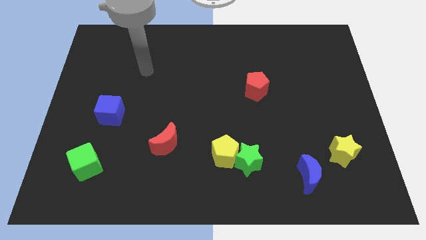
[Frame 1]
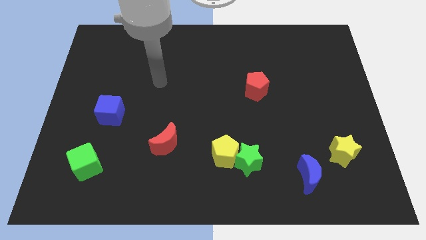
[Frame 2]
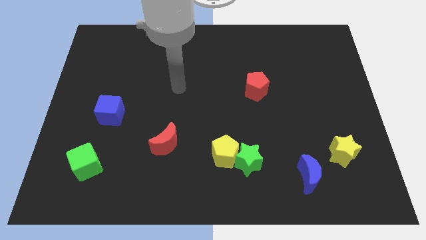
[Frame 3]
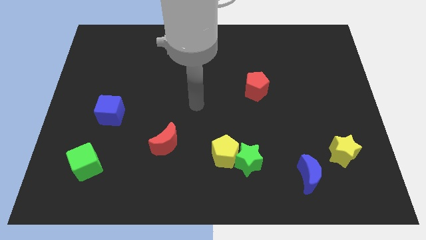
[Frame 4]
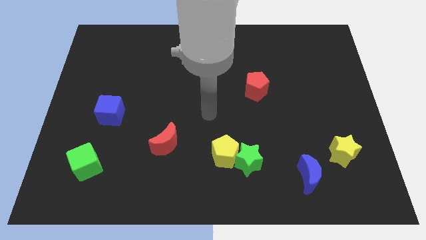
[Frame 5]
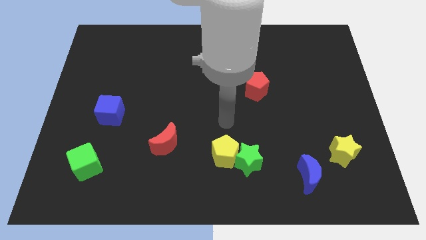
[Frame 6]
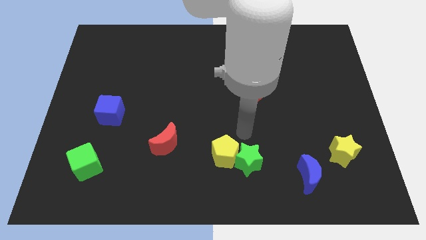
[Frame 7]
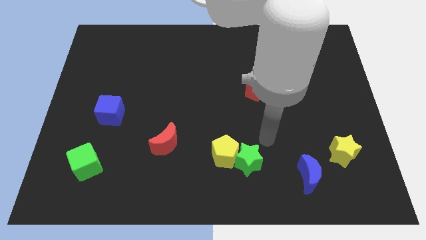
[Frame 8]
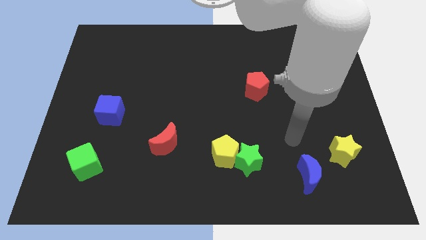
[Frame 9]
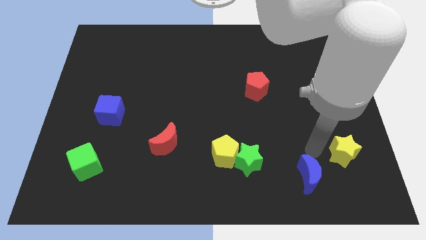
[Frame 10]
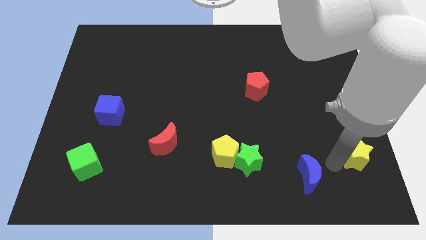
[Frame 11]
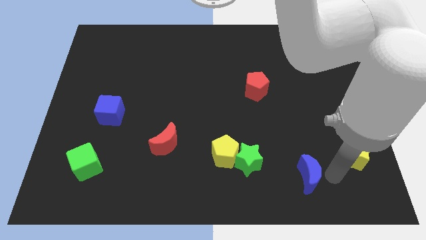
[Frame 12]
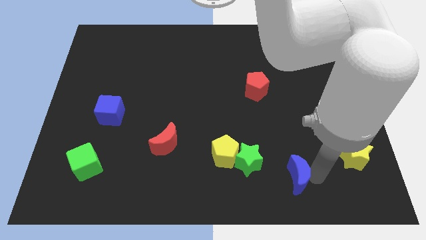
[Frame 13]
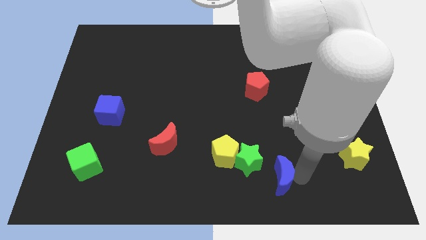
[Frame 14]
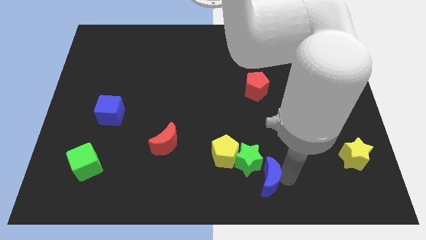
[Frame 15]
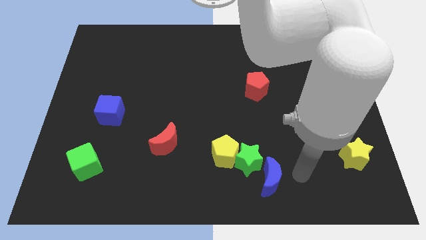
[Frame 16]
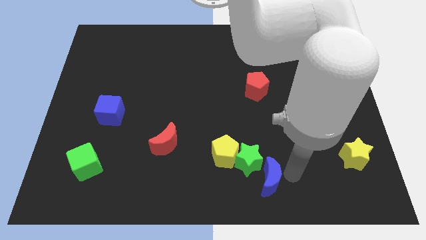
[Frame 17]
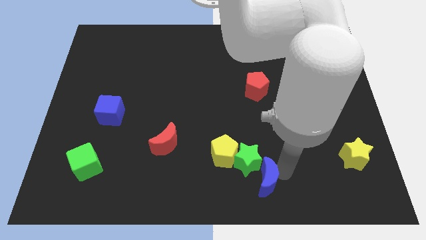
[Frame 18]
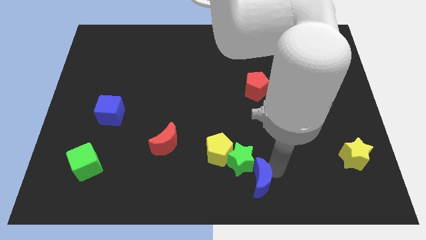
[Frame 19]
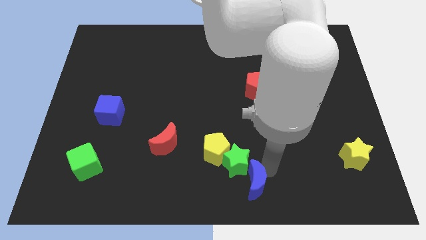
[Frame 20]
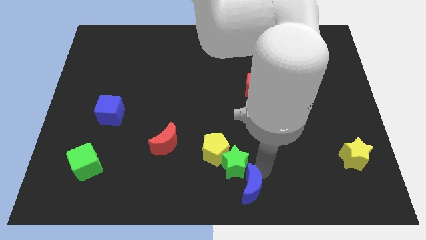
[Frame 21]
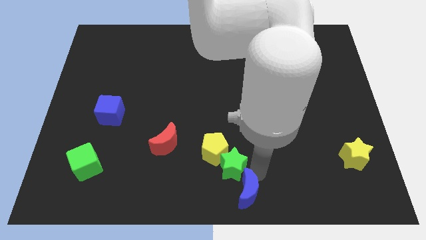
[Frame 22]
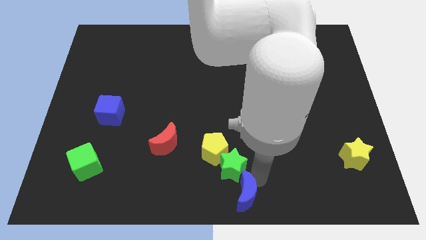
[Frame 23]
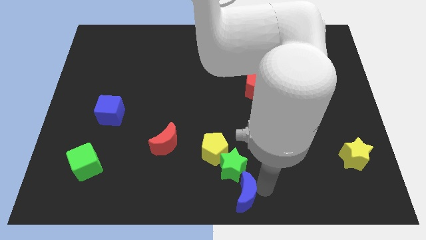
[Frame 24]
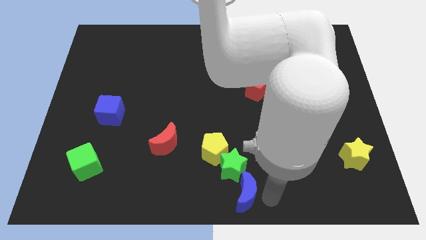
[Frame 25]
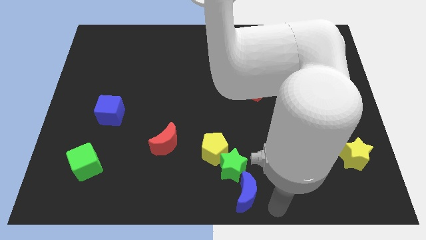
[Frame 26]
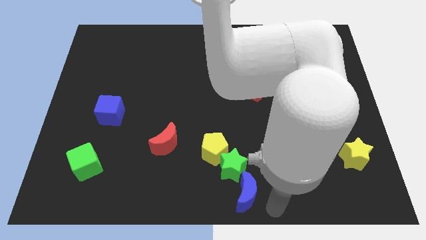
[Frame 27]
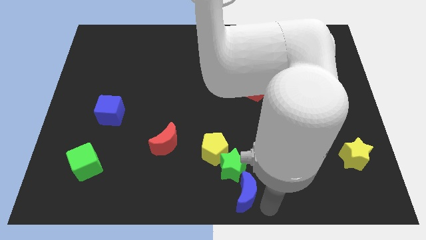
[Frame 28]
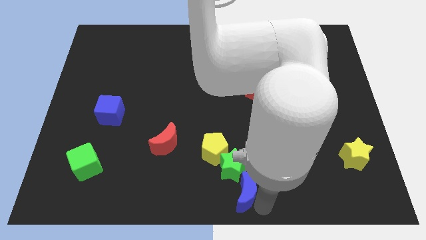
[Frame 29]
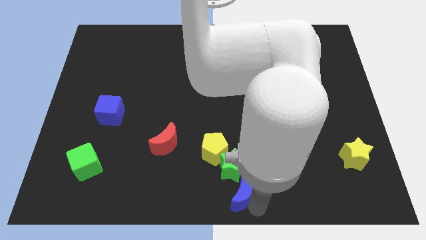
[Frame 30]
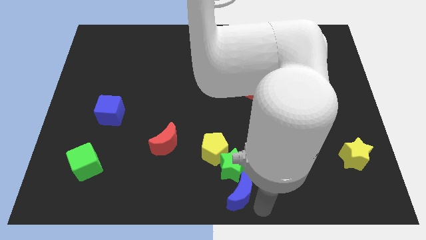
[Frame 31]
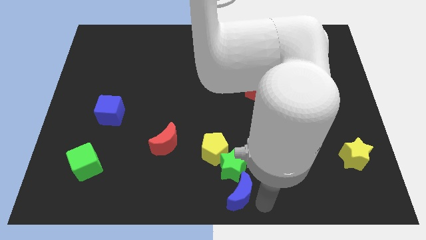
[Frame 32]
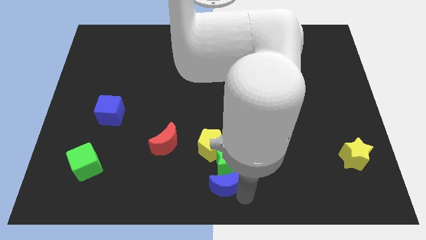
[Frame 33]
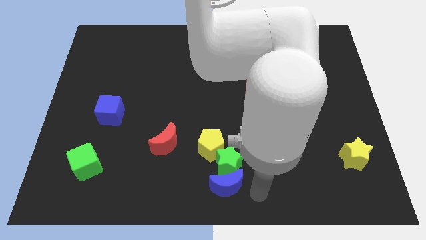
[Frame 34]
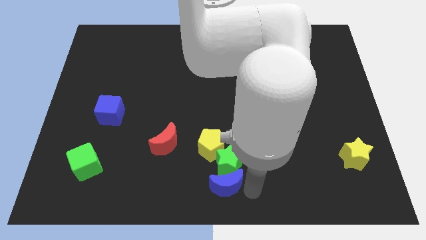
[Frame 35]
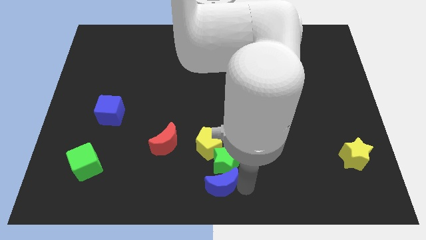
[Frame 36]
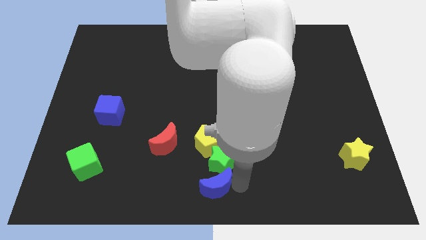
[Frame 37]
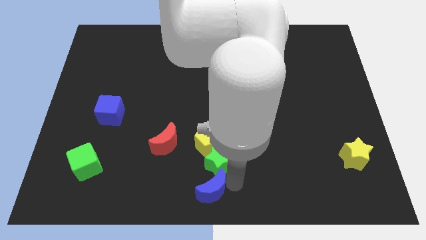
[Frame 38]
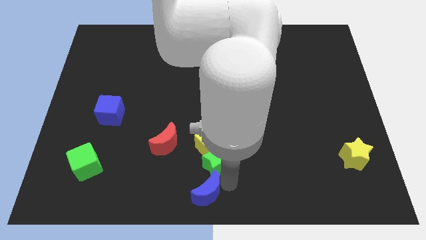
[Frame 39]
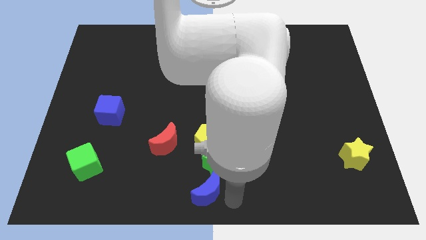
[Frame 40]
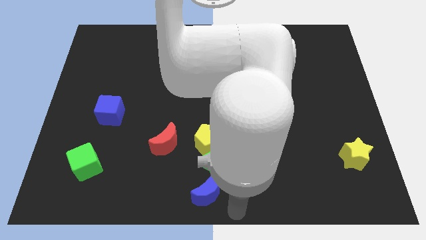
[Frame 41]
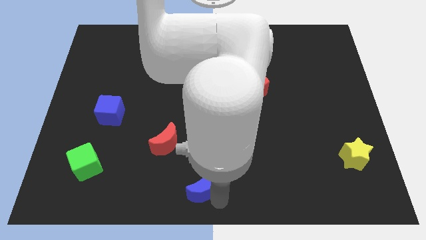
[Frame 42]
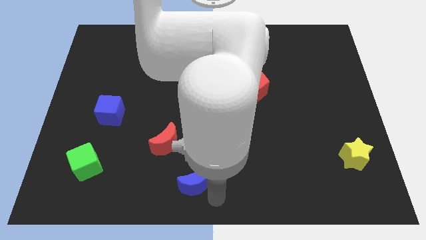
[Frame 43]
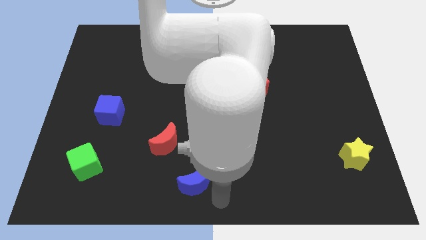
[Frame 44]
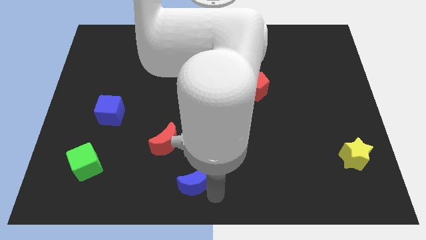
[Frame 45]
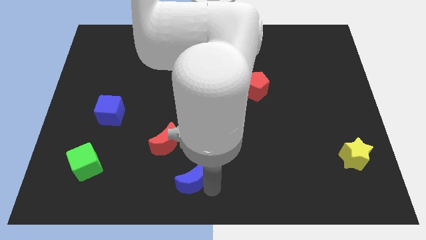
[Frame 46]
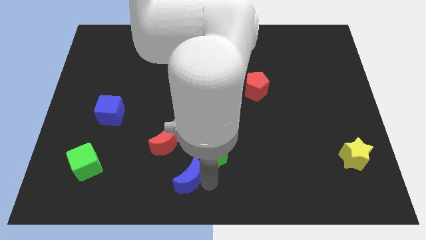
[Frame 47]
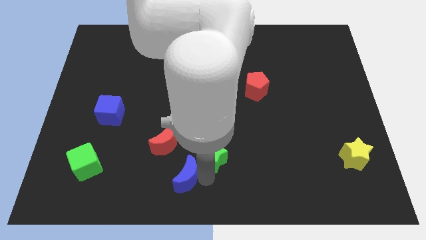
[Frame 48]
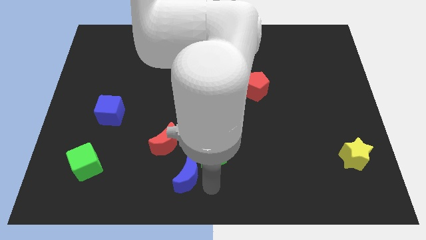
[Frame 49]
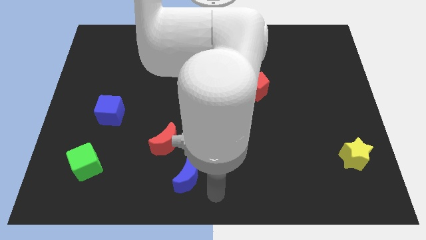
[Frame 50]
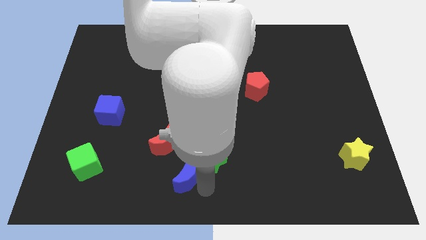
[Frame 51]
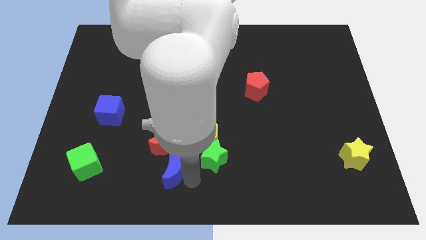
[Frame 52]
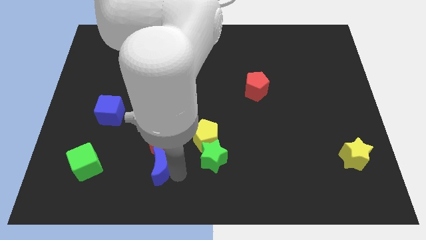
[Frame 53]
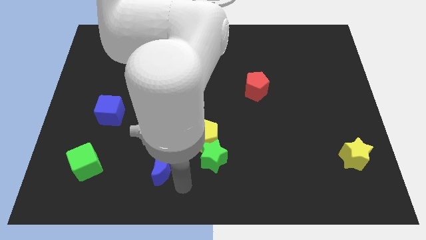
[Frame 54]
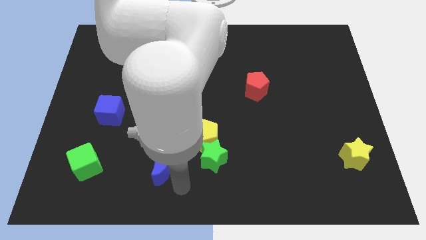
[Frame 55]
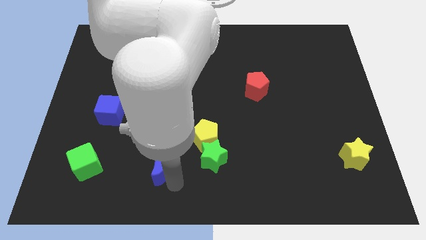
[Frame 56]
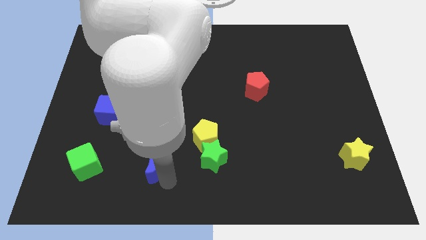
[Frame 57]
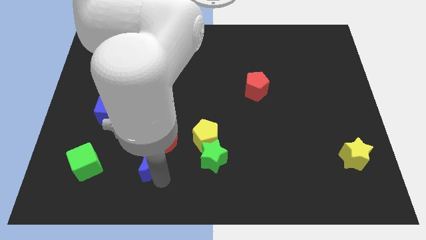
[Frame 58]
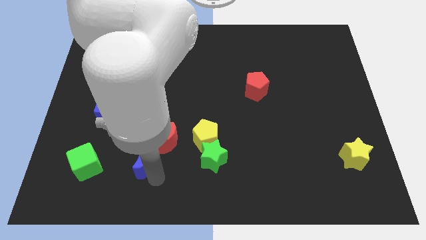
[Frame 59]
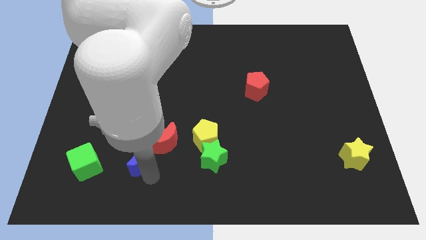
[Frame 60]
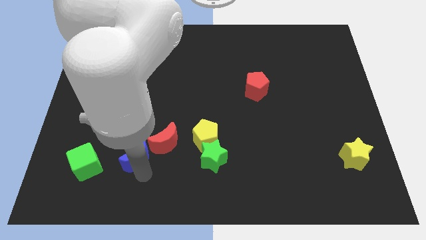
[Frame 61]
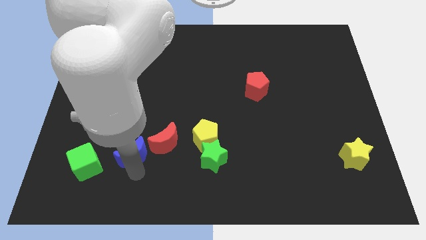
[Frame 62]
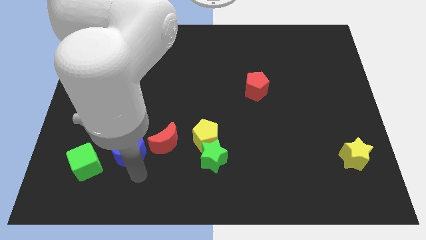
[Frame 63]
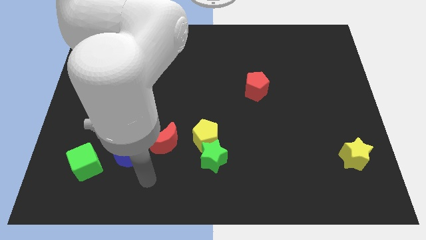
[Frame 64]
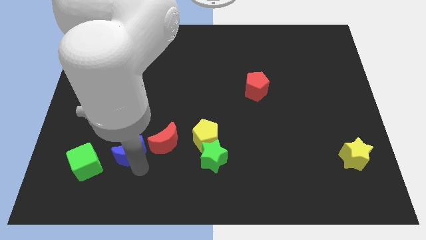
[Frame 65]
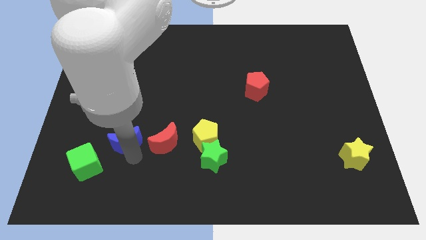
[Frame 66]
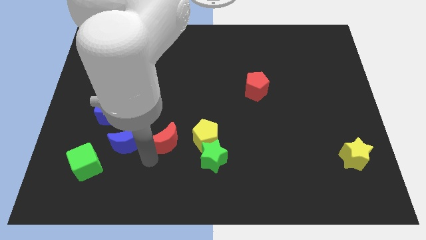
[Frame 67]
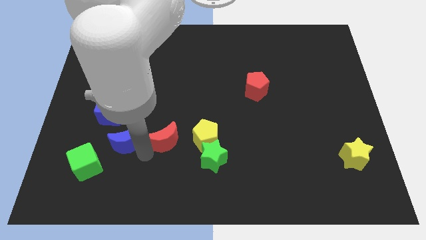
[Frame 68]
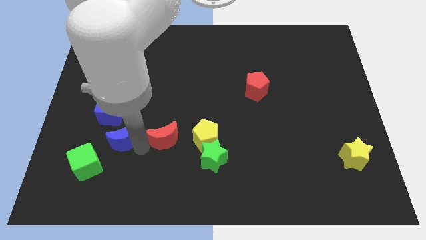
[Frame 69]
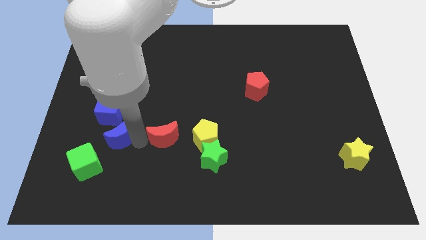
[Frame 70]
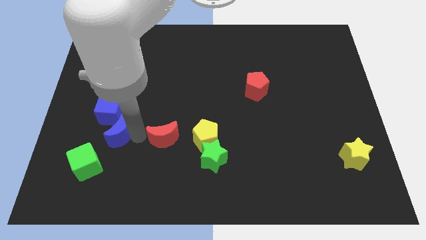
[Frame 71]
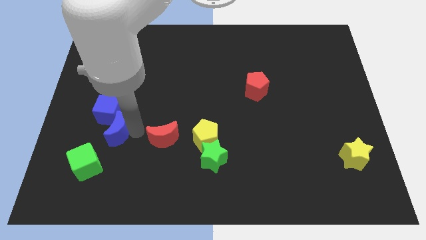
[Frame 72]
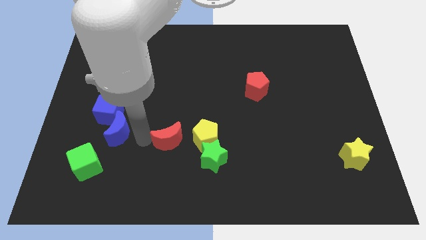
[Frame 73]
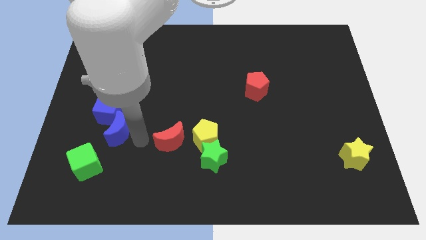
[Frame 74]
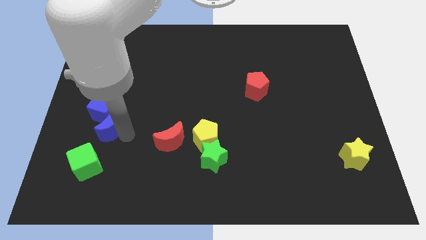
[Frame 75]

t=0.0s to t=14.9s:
slide the blue moon above the green cube

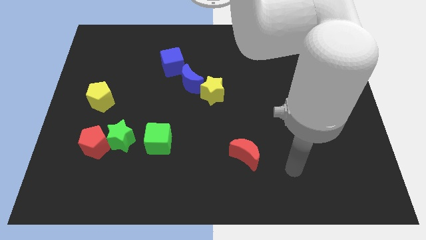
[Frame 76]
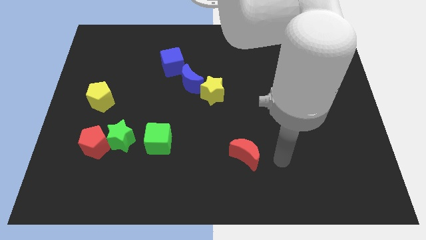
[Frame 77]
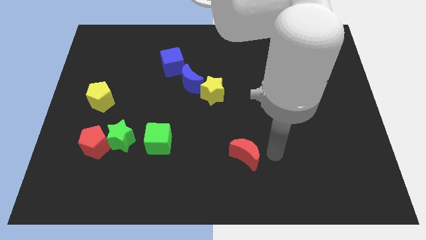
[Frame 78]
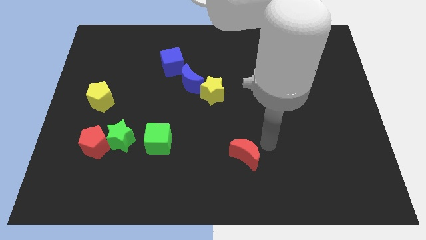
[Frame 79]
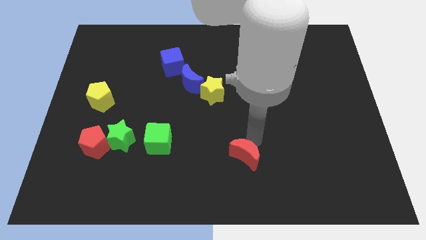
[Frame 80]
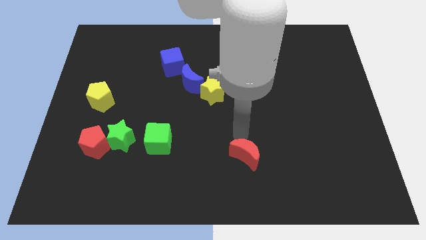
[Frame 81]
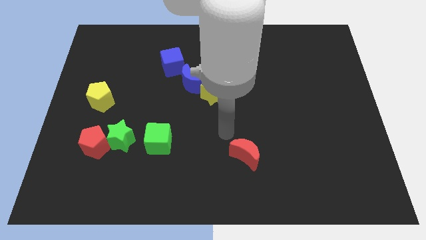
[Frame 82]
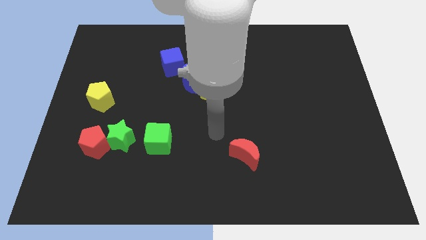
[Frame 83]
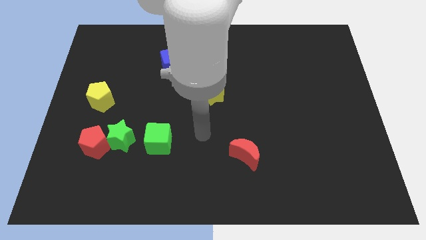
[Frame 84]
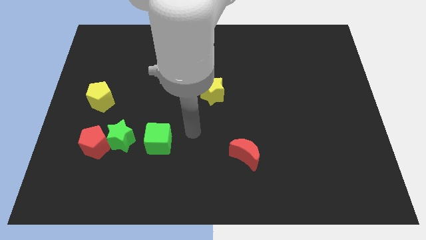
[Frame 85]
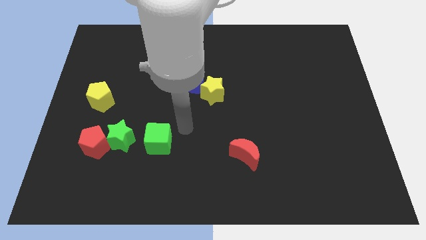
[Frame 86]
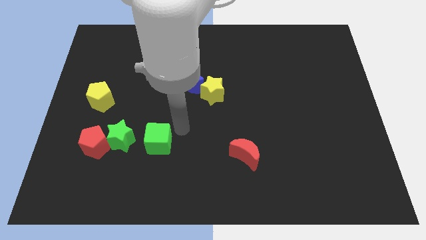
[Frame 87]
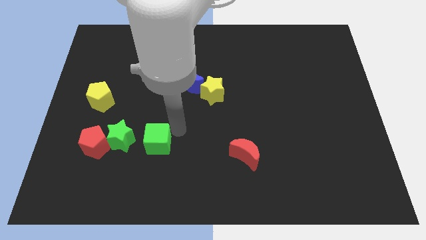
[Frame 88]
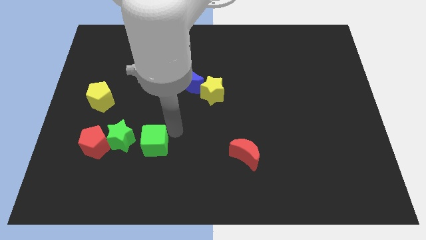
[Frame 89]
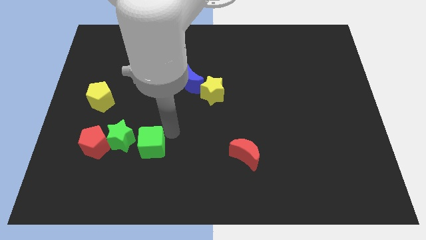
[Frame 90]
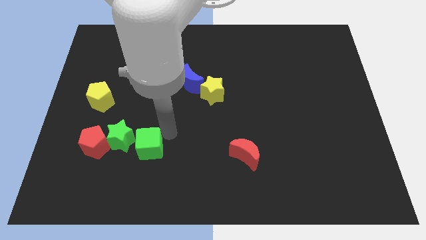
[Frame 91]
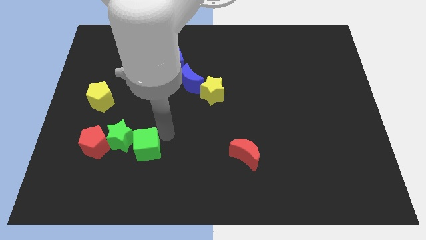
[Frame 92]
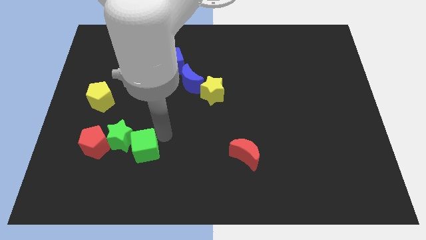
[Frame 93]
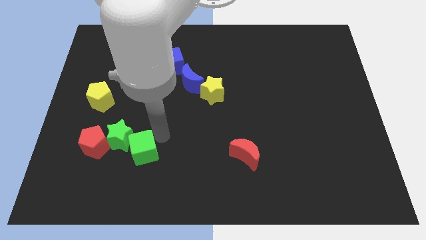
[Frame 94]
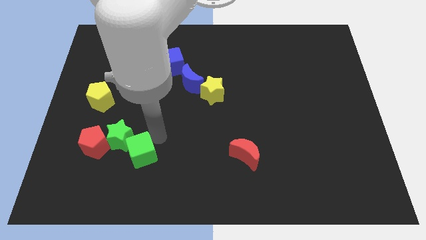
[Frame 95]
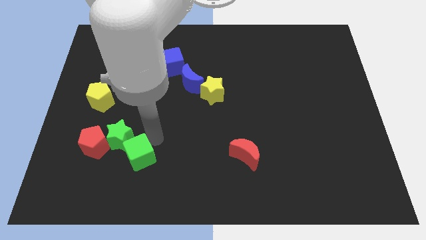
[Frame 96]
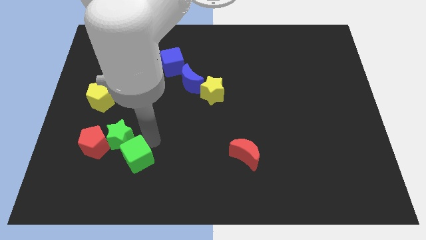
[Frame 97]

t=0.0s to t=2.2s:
slide the green cube to the bottom right side of the red pentagon
